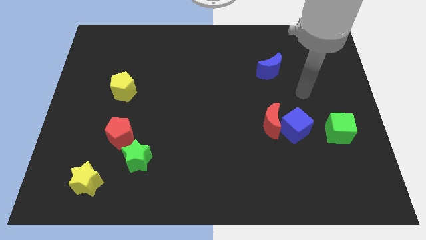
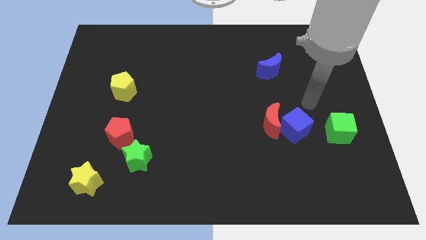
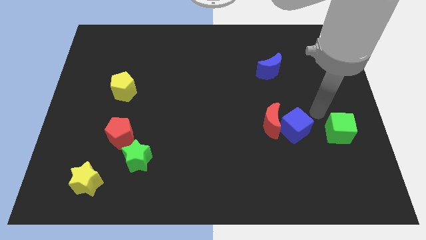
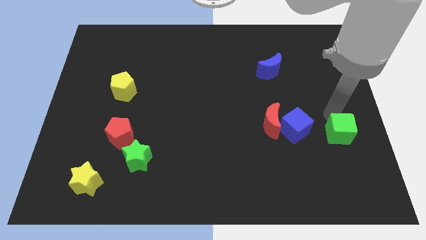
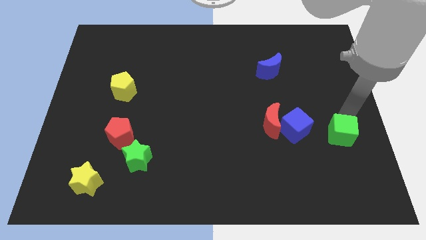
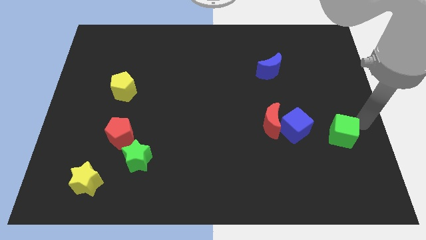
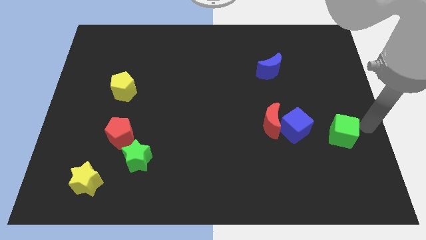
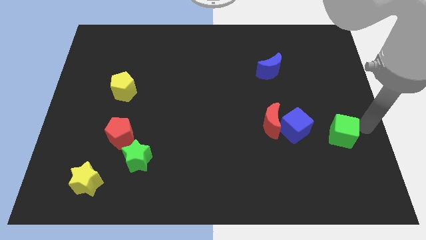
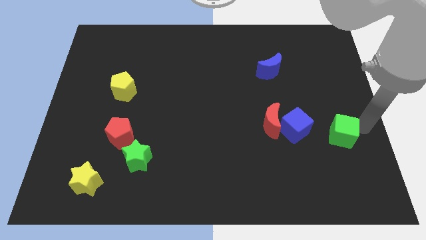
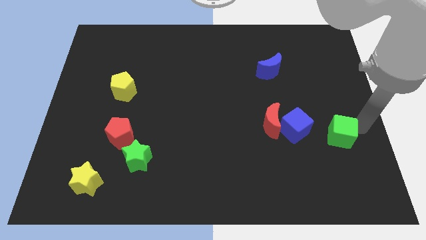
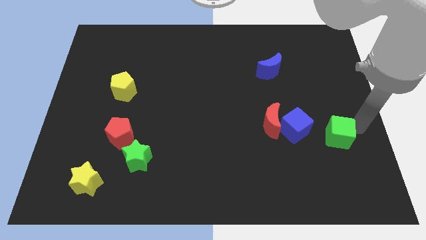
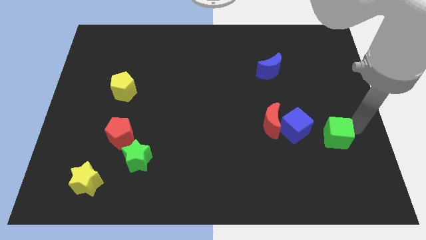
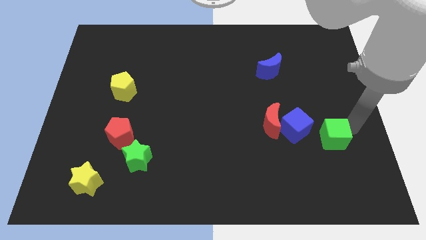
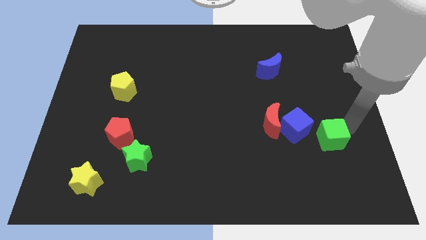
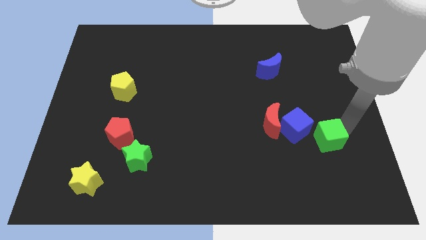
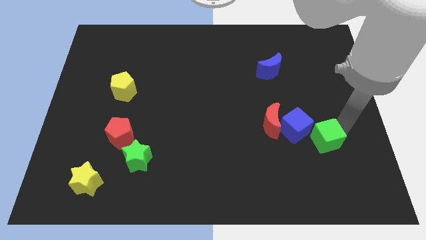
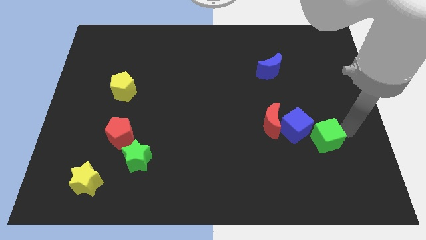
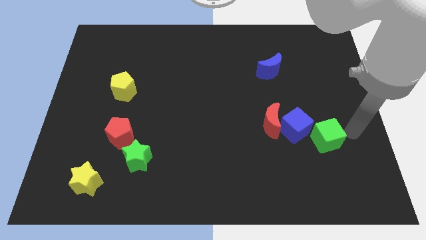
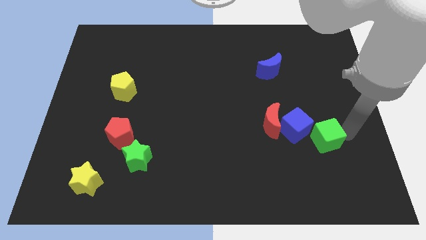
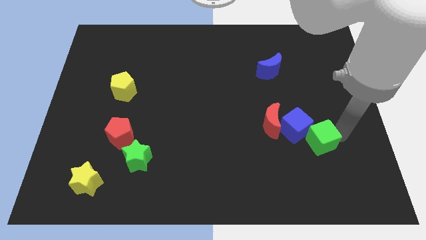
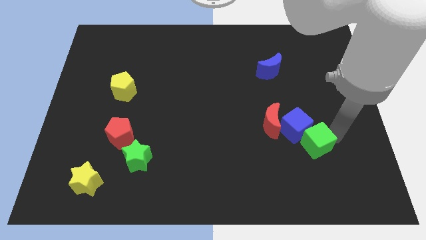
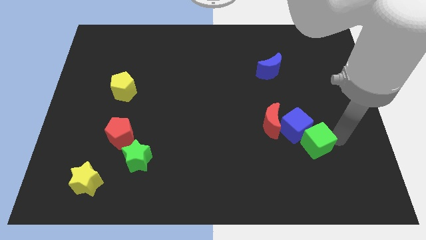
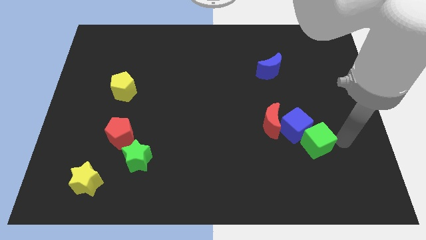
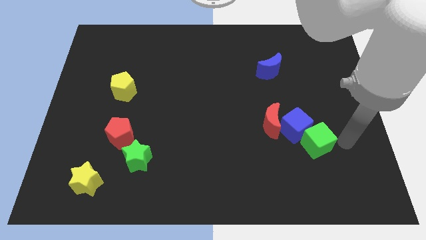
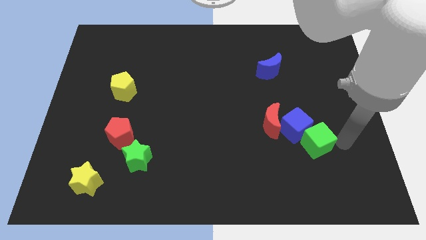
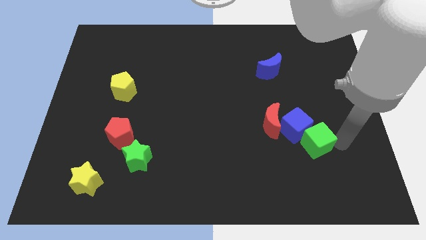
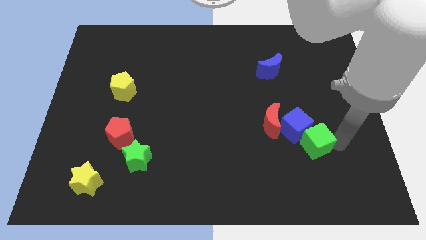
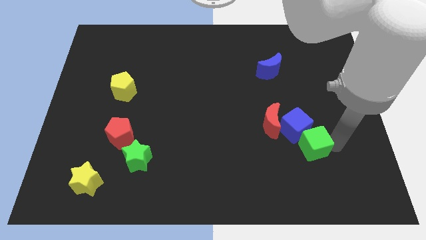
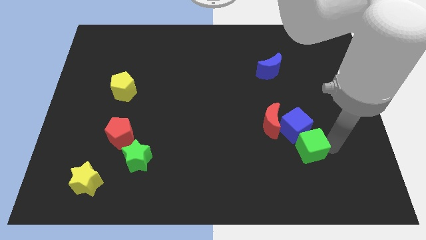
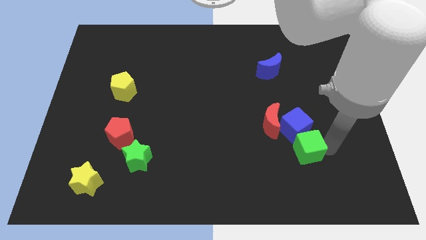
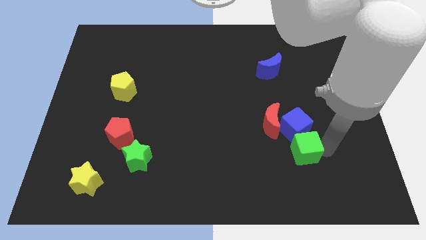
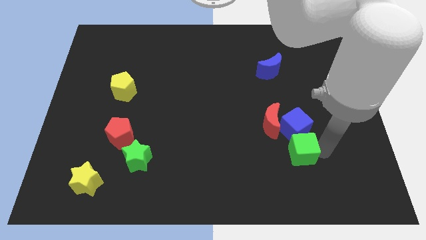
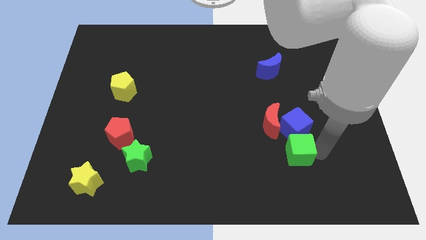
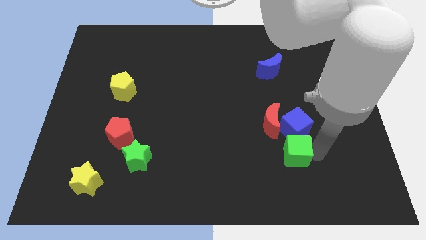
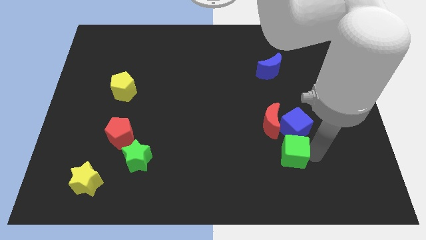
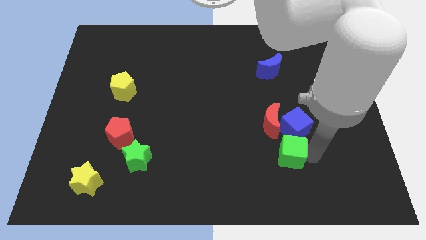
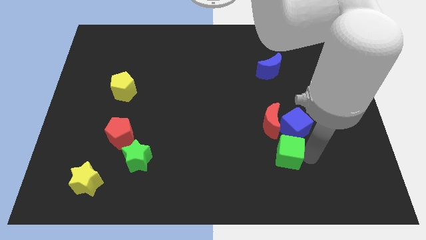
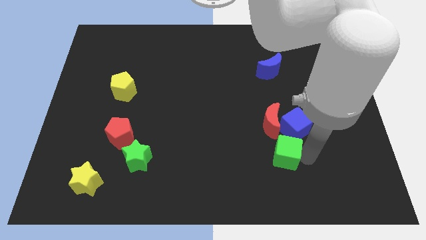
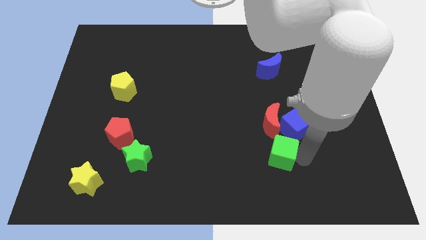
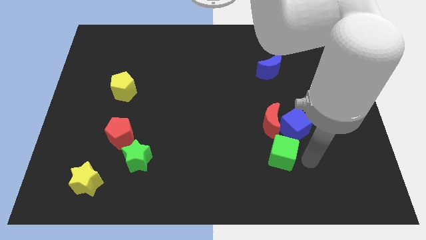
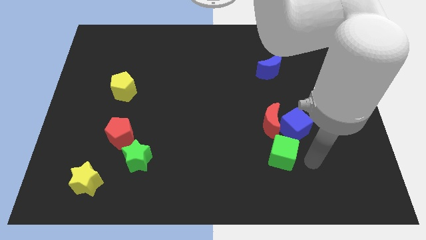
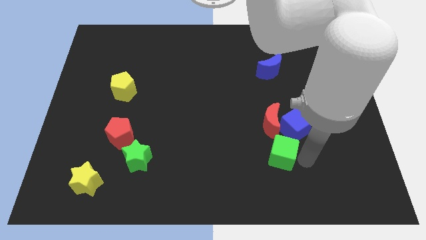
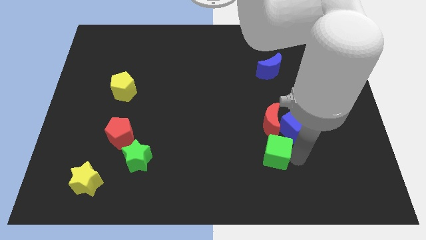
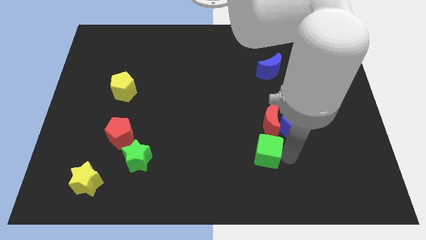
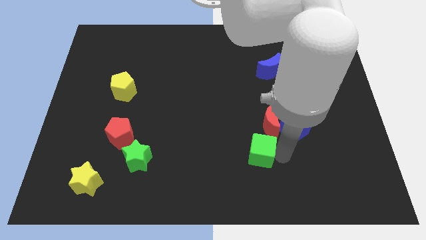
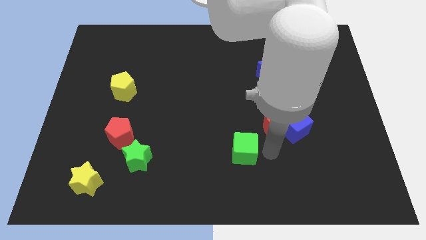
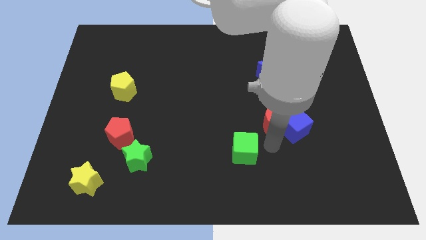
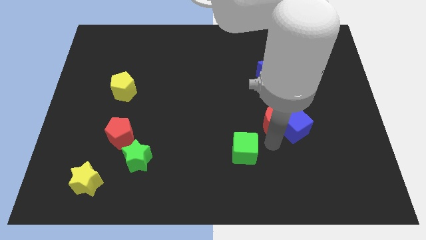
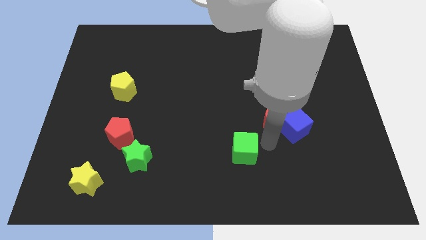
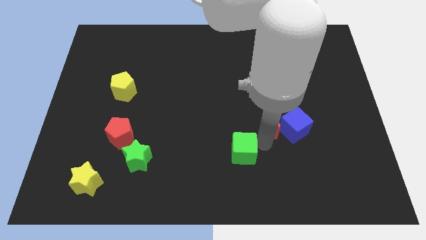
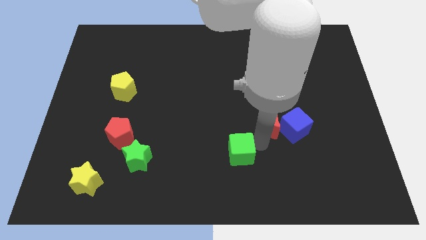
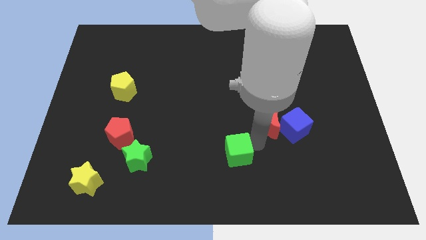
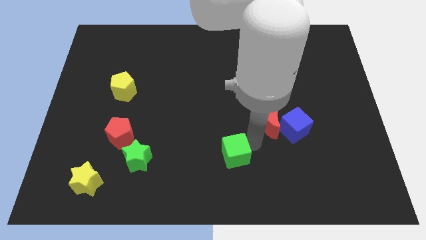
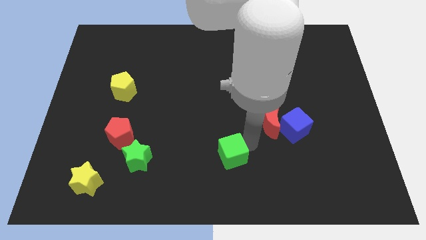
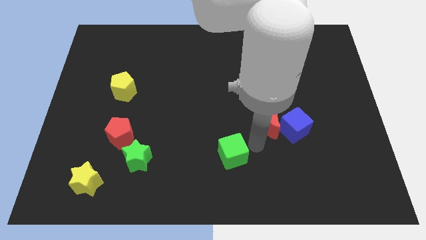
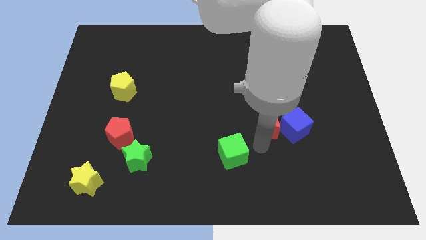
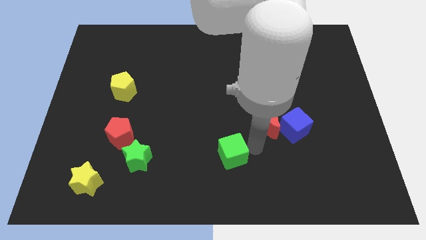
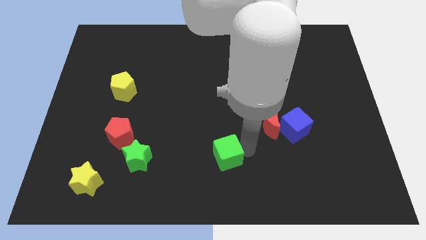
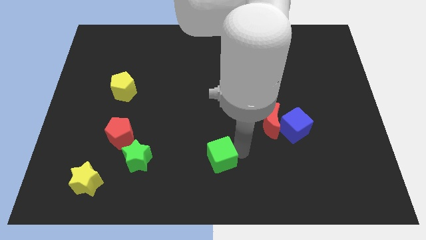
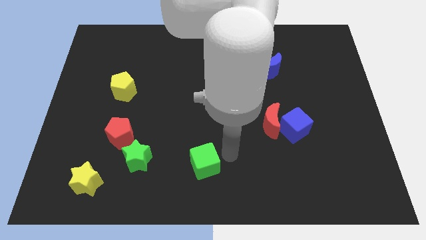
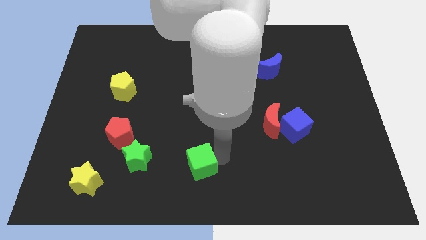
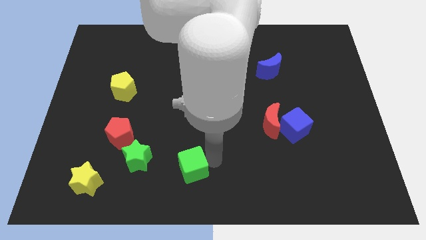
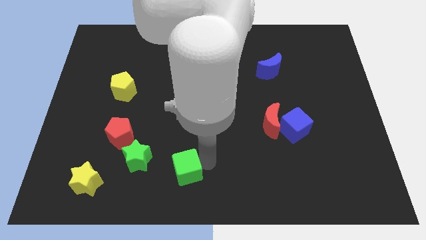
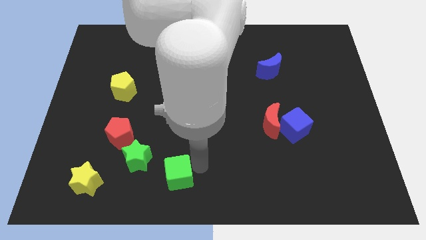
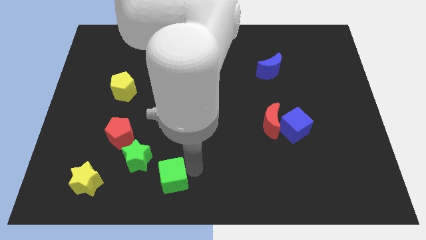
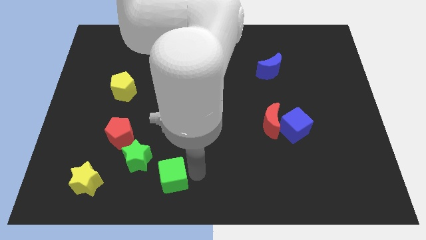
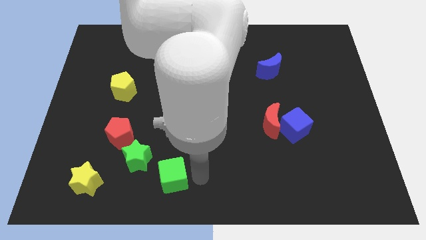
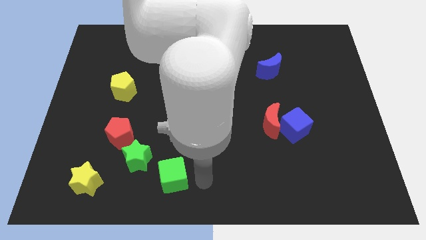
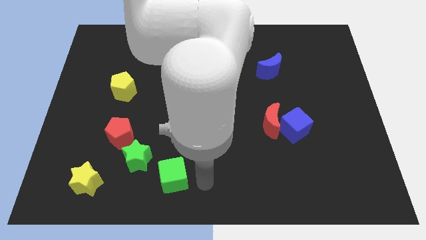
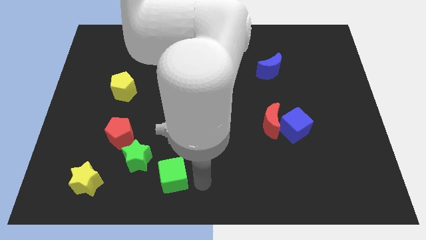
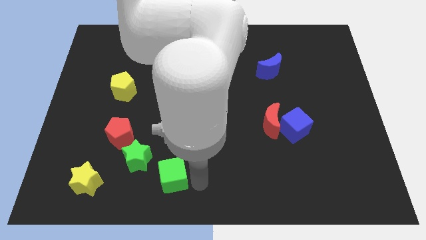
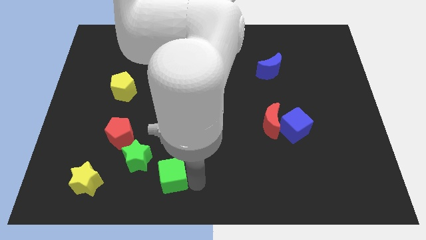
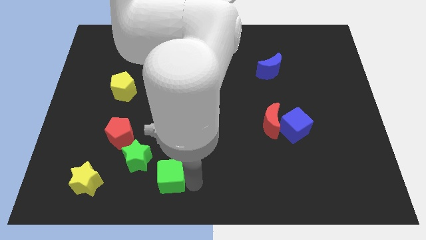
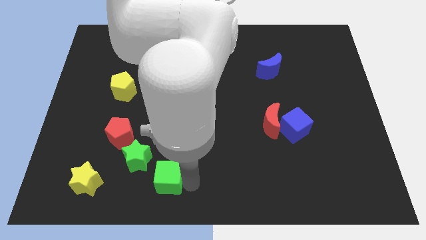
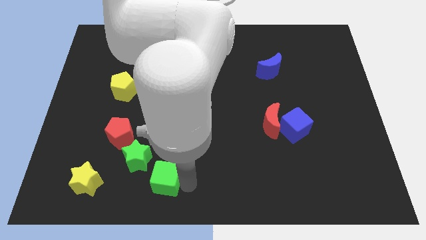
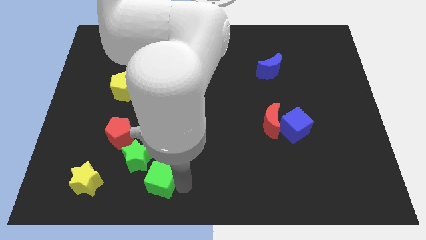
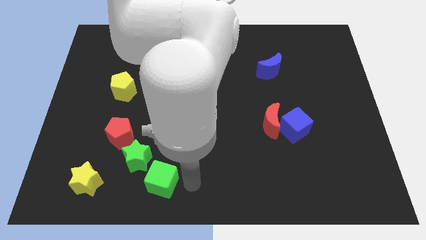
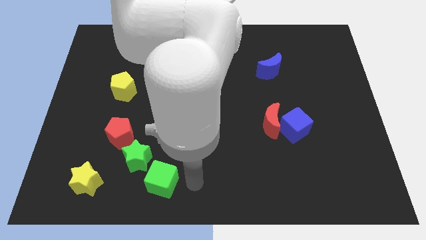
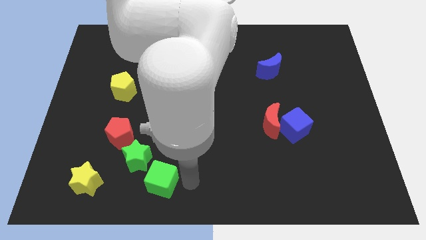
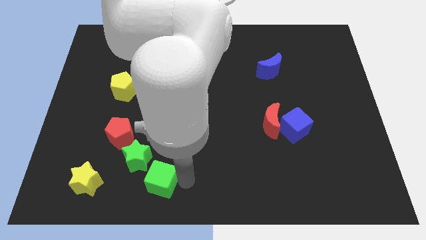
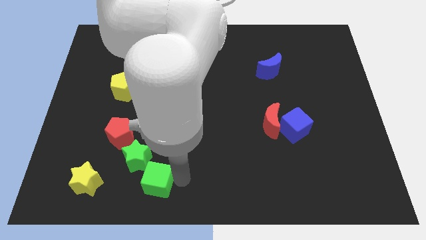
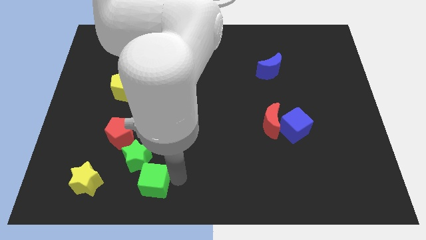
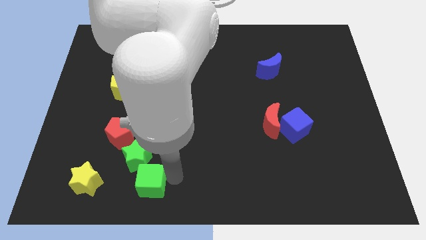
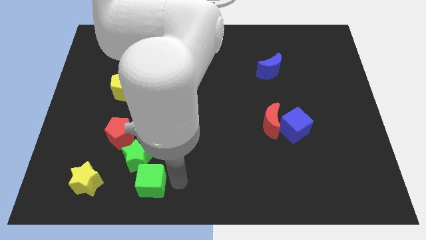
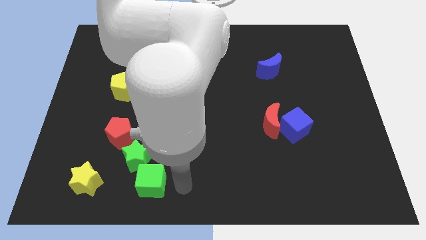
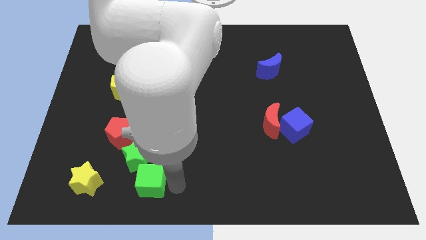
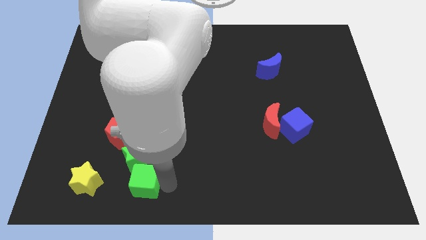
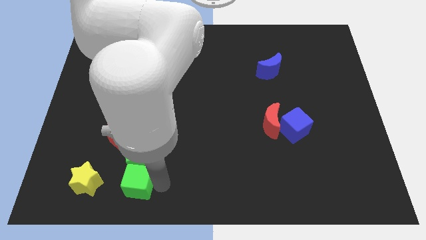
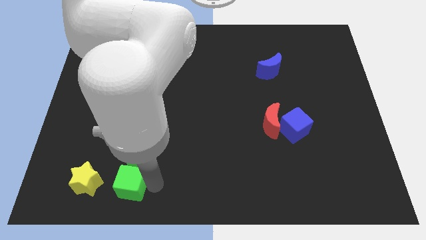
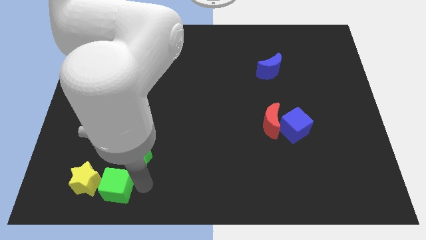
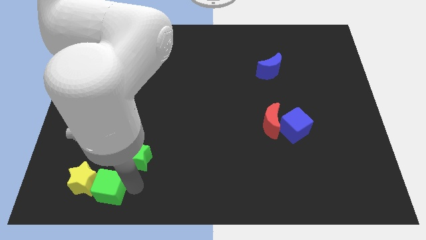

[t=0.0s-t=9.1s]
move the green cube close to the yellow star
